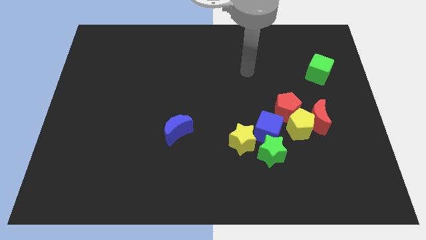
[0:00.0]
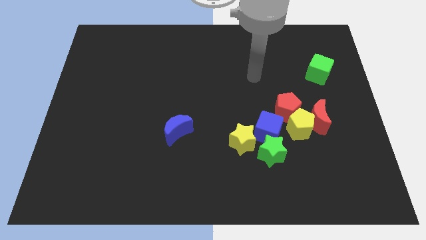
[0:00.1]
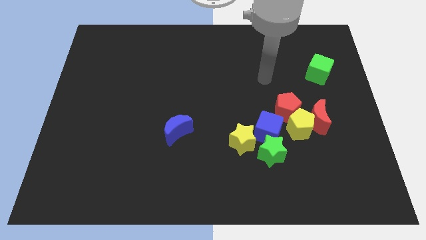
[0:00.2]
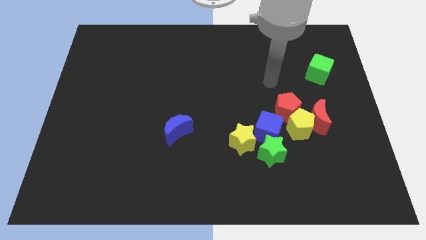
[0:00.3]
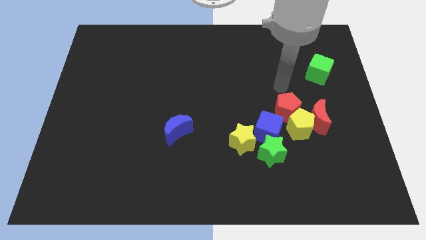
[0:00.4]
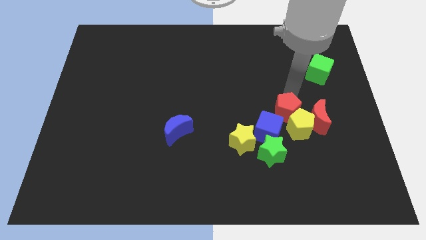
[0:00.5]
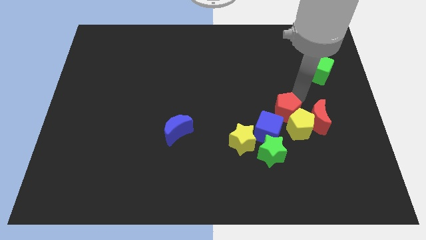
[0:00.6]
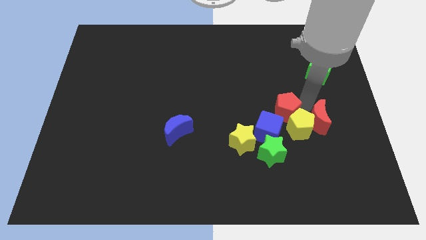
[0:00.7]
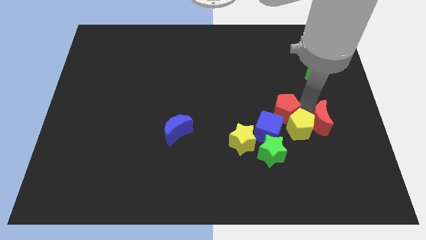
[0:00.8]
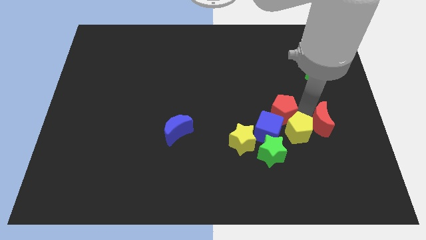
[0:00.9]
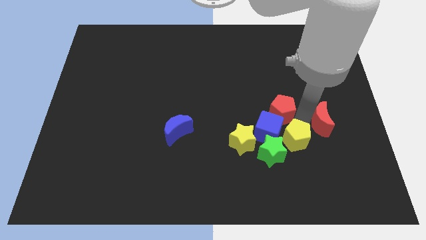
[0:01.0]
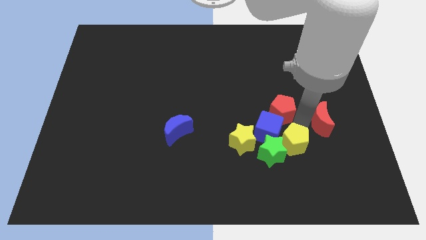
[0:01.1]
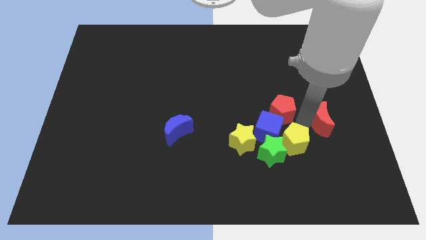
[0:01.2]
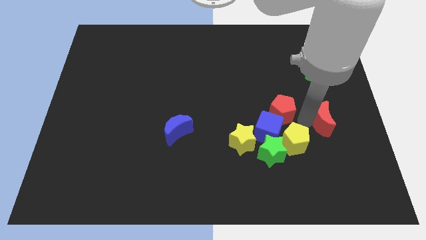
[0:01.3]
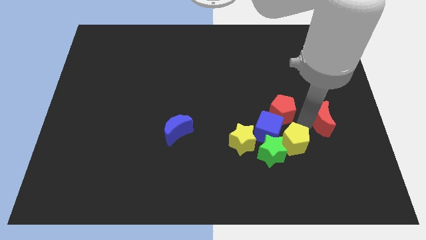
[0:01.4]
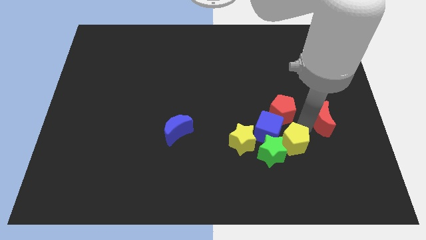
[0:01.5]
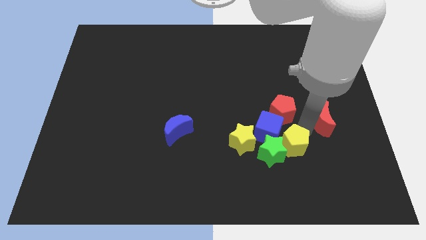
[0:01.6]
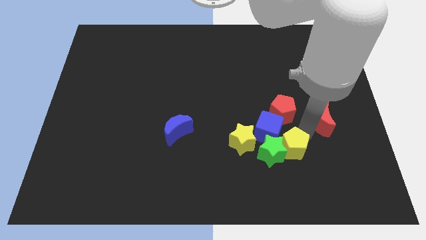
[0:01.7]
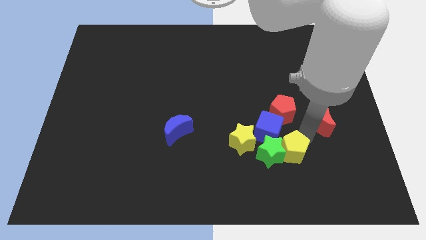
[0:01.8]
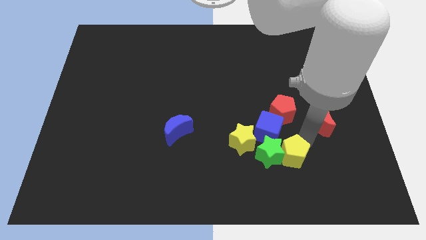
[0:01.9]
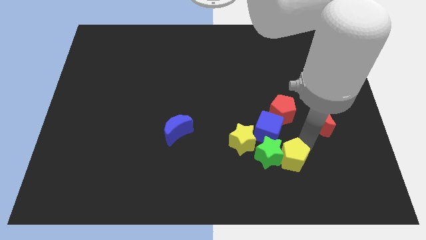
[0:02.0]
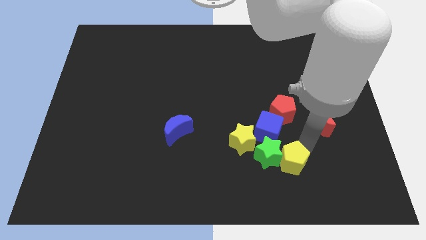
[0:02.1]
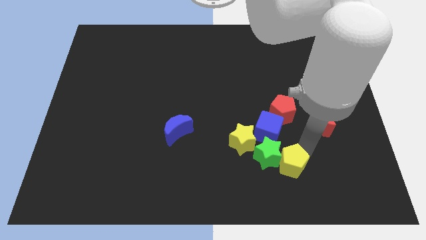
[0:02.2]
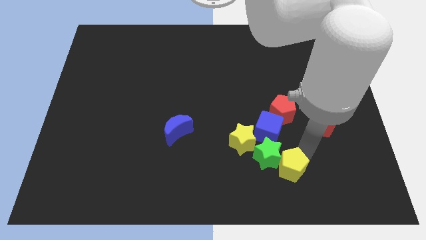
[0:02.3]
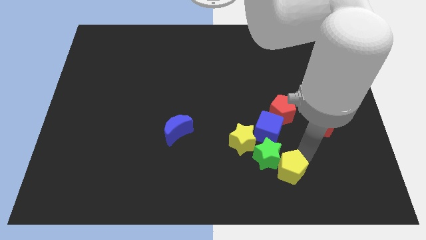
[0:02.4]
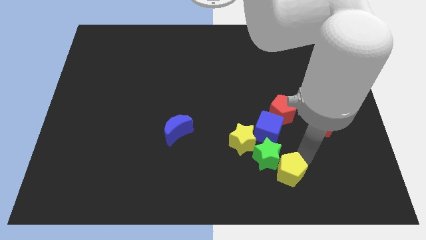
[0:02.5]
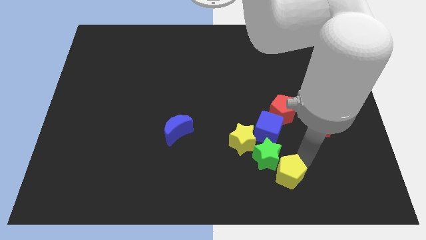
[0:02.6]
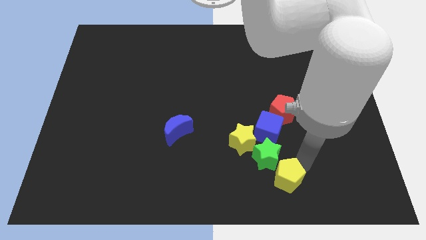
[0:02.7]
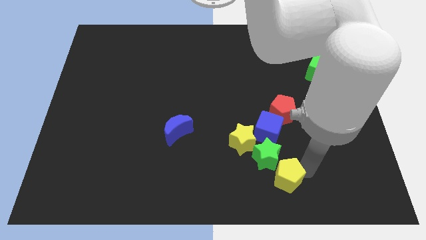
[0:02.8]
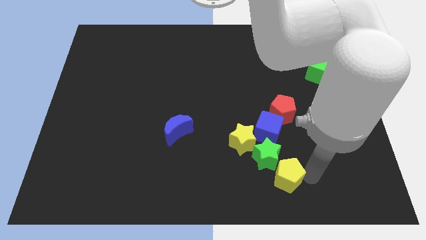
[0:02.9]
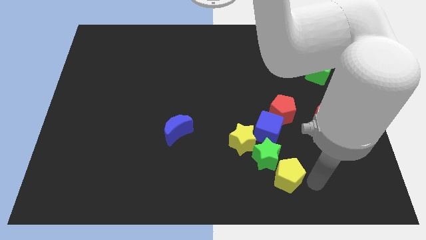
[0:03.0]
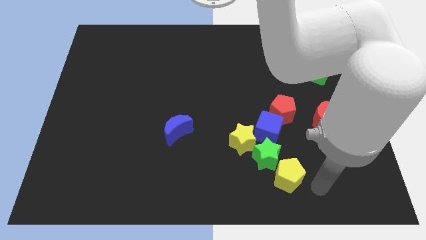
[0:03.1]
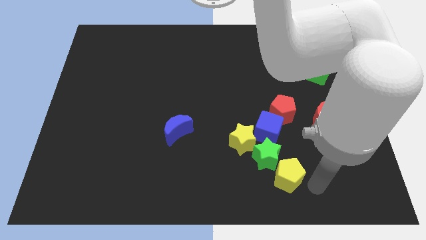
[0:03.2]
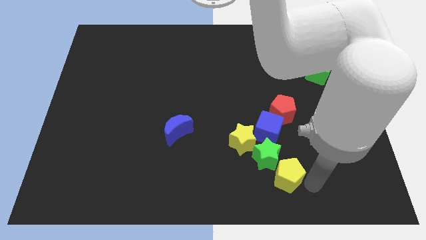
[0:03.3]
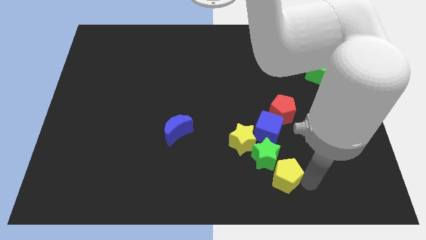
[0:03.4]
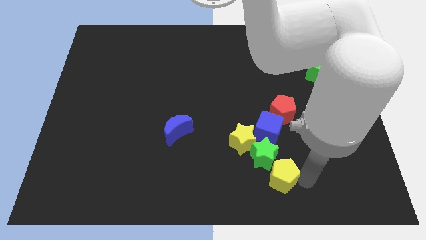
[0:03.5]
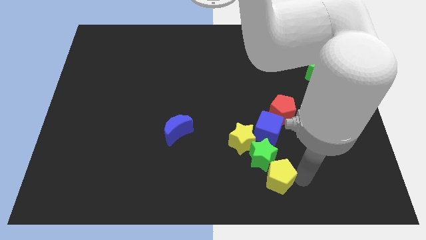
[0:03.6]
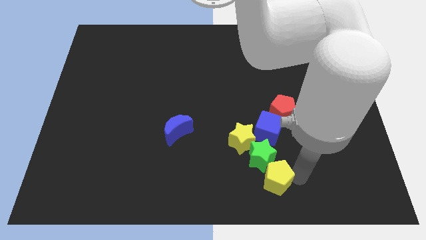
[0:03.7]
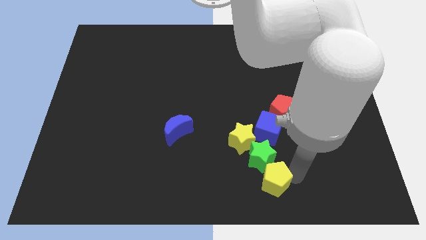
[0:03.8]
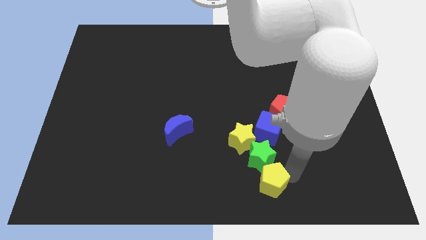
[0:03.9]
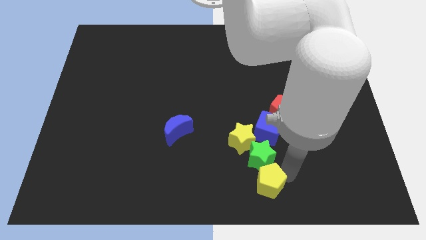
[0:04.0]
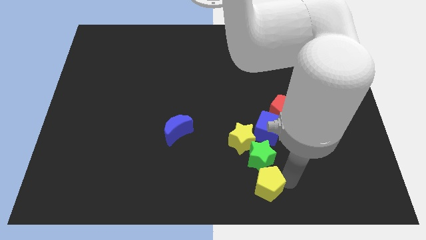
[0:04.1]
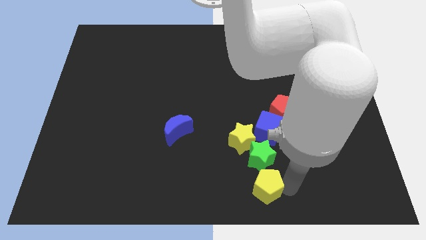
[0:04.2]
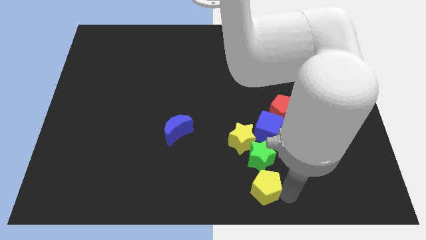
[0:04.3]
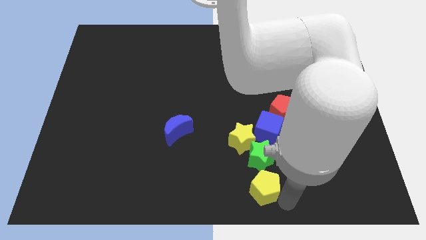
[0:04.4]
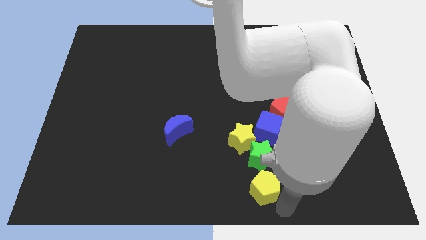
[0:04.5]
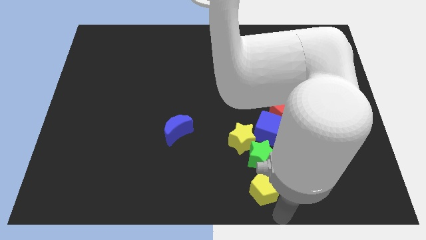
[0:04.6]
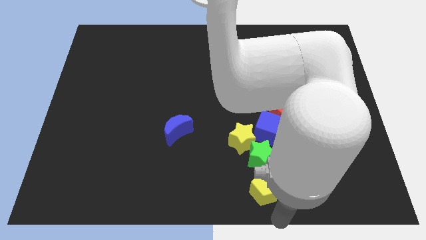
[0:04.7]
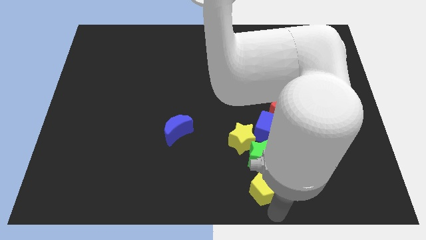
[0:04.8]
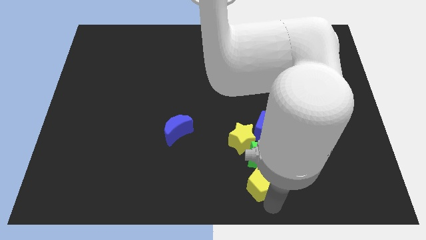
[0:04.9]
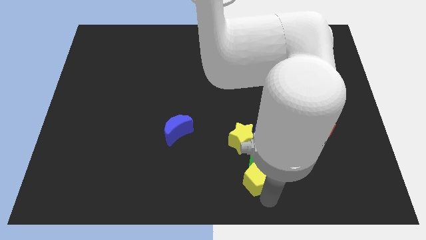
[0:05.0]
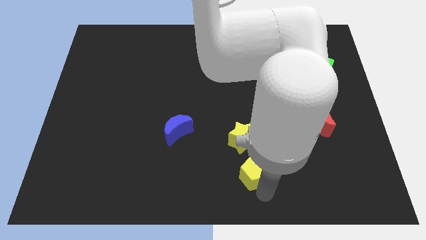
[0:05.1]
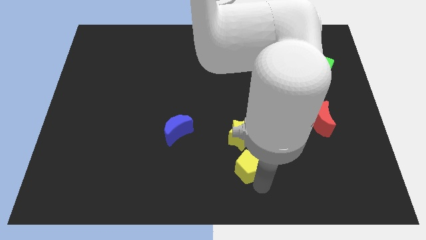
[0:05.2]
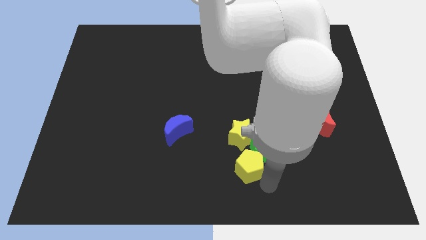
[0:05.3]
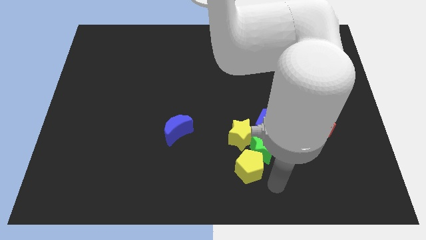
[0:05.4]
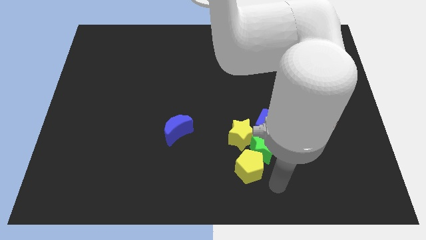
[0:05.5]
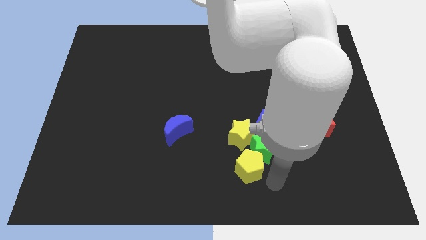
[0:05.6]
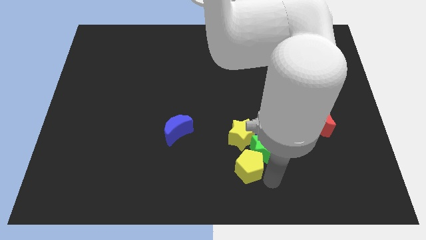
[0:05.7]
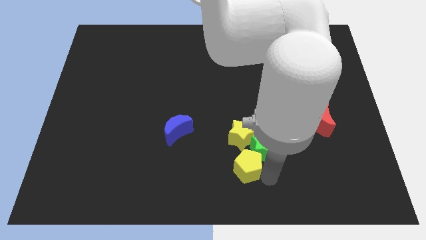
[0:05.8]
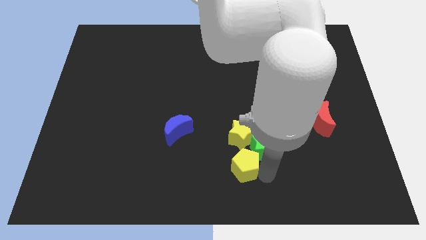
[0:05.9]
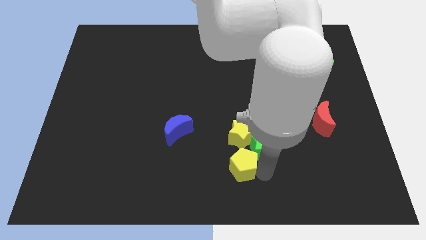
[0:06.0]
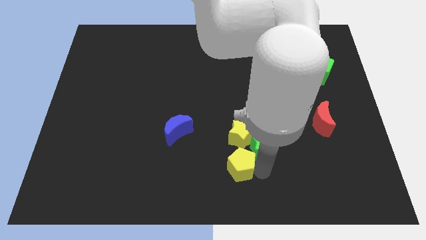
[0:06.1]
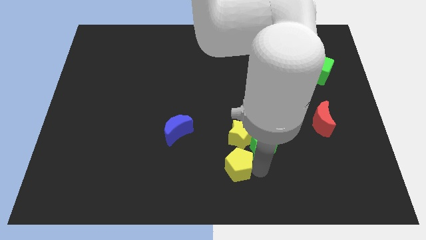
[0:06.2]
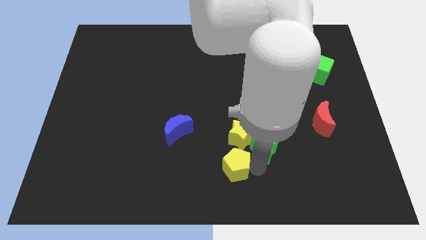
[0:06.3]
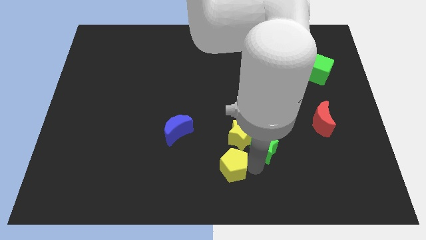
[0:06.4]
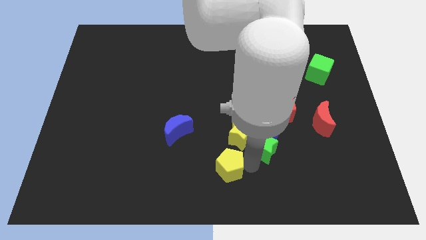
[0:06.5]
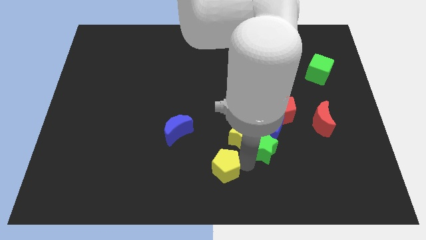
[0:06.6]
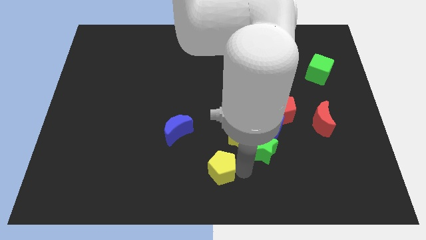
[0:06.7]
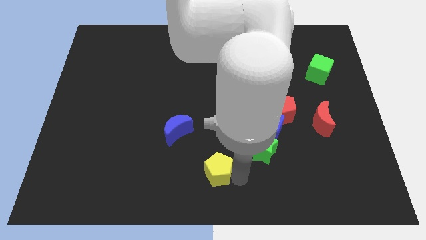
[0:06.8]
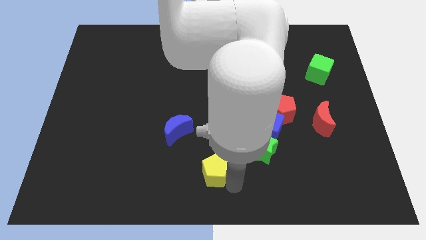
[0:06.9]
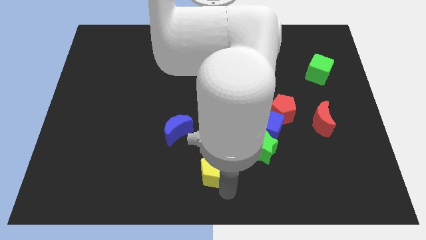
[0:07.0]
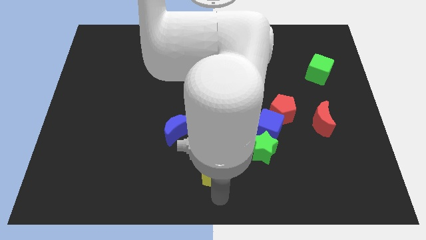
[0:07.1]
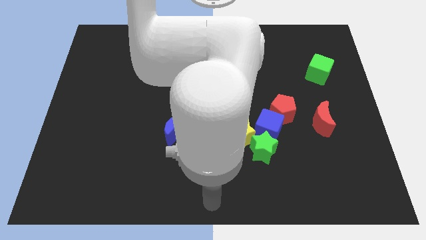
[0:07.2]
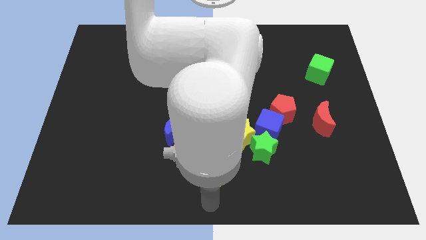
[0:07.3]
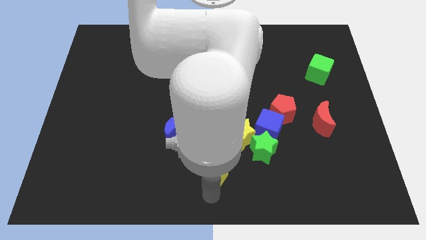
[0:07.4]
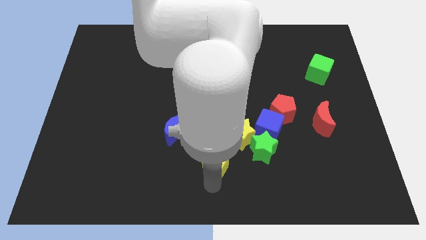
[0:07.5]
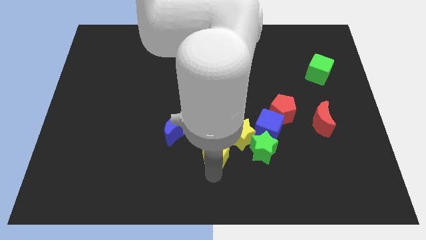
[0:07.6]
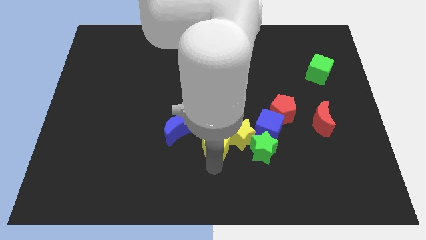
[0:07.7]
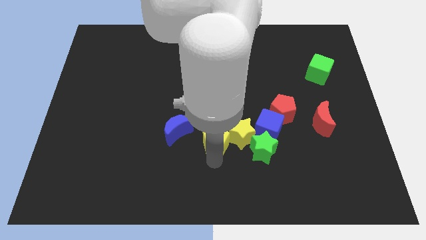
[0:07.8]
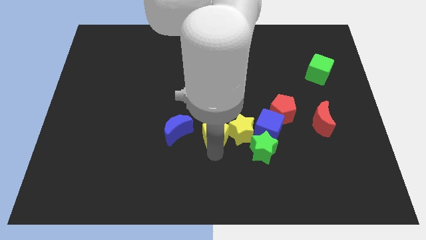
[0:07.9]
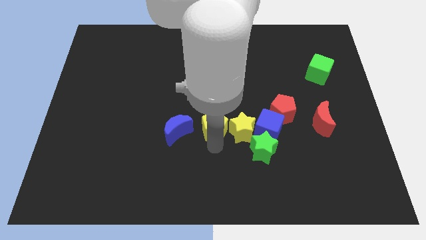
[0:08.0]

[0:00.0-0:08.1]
push the yellow pentagon to the top left side of the yellow star
